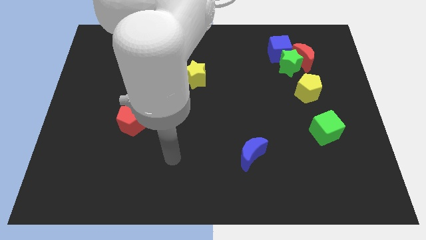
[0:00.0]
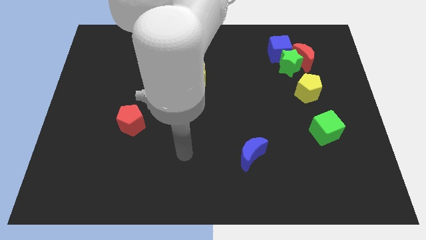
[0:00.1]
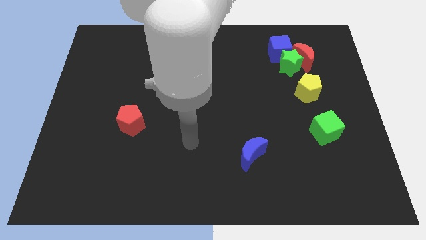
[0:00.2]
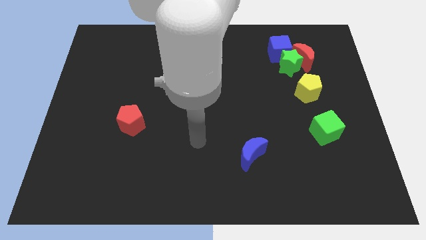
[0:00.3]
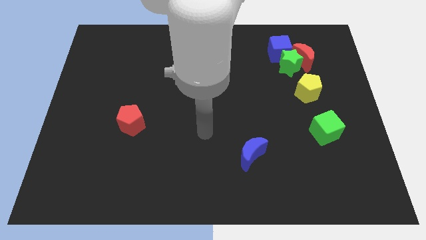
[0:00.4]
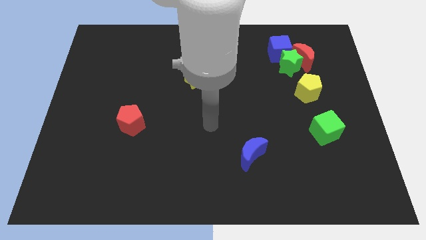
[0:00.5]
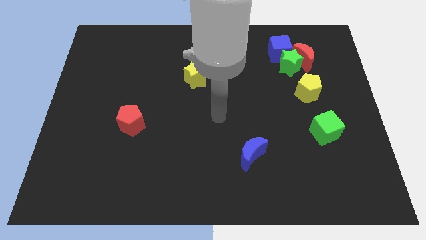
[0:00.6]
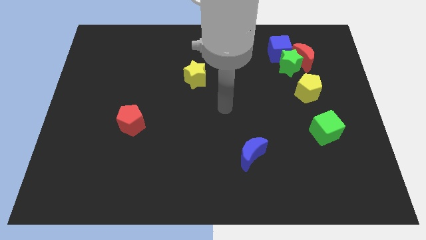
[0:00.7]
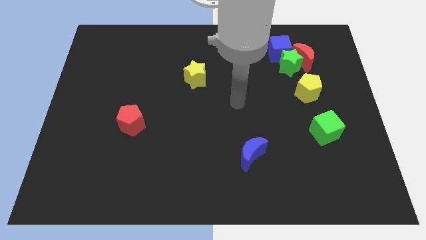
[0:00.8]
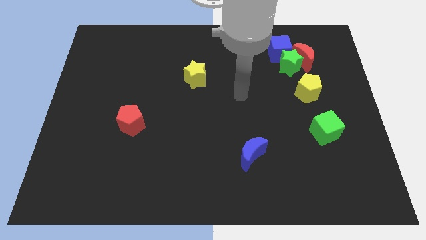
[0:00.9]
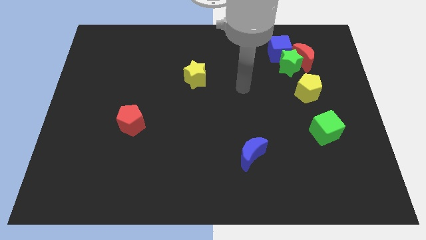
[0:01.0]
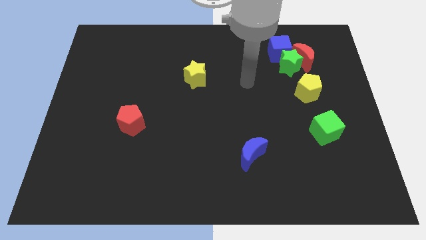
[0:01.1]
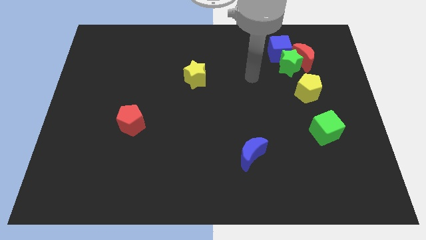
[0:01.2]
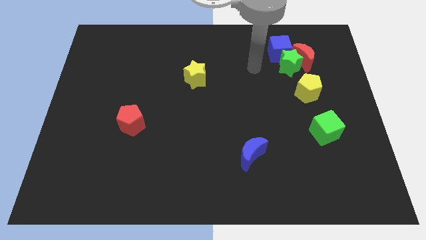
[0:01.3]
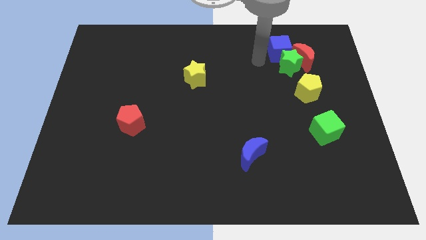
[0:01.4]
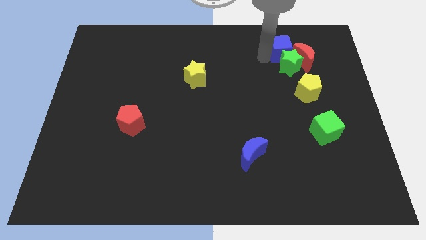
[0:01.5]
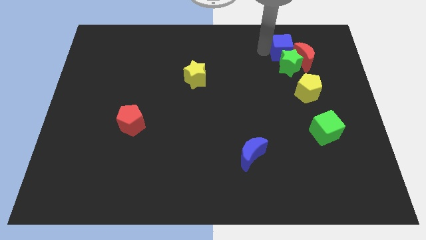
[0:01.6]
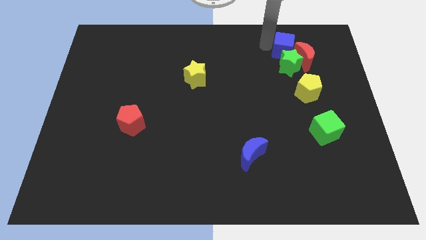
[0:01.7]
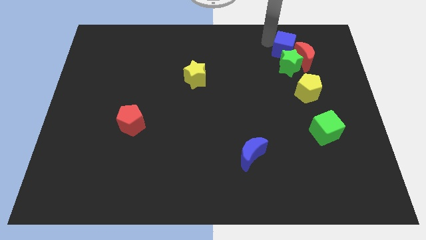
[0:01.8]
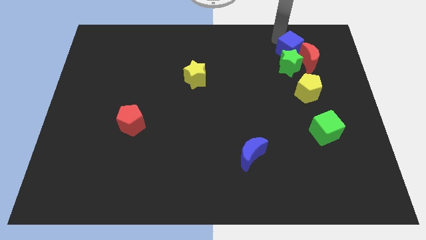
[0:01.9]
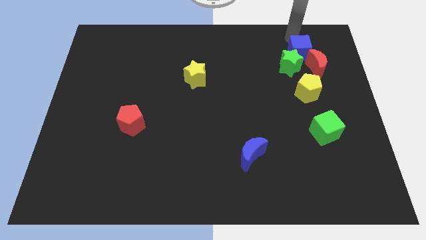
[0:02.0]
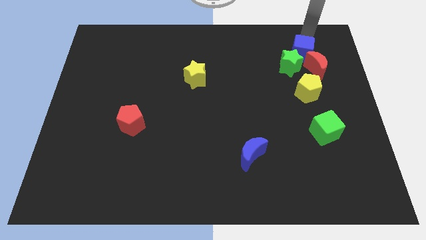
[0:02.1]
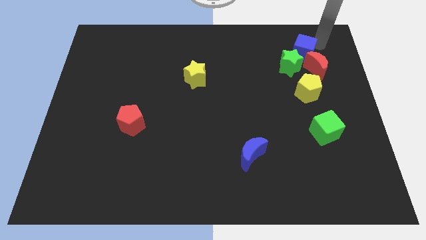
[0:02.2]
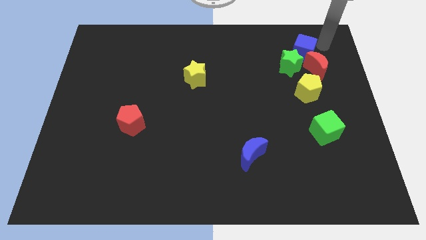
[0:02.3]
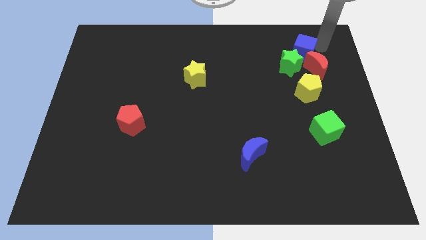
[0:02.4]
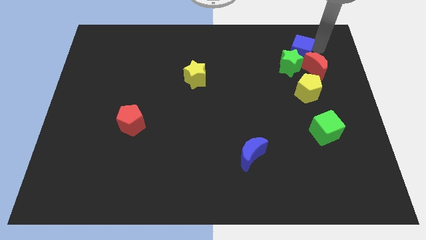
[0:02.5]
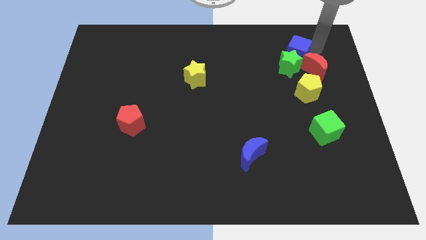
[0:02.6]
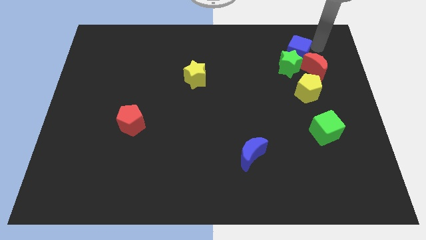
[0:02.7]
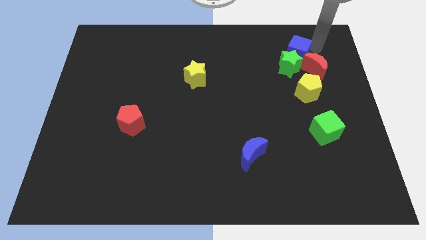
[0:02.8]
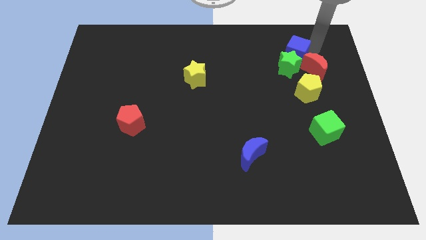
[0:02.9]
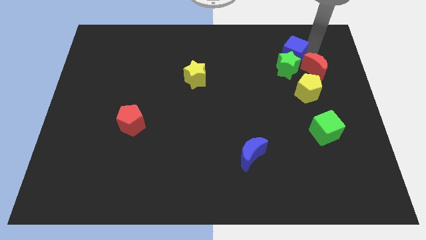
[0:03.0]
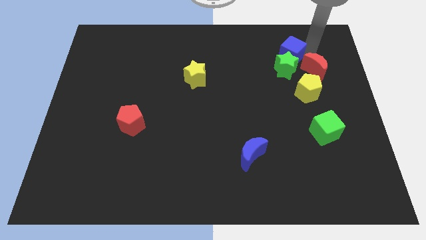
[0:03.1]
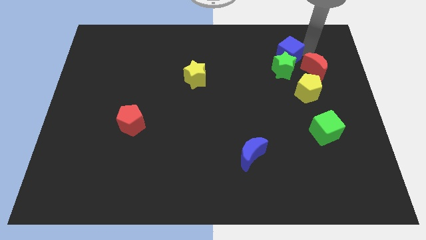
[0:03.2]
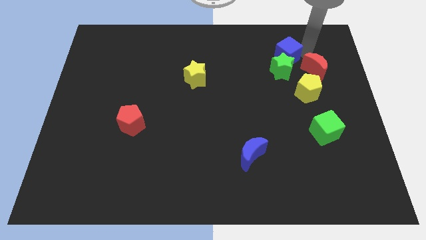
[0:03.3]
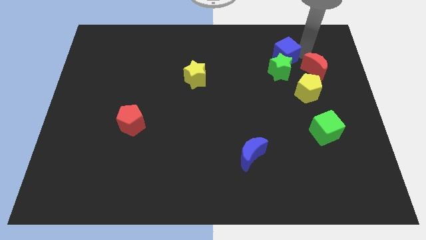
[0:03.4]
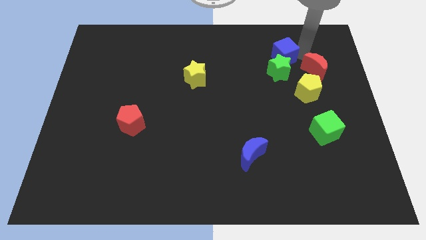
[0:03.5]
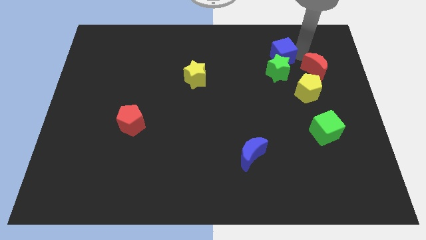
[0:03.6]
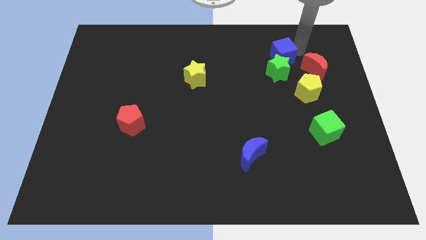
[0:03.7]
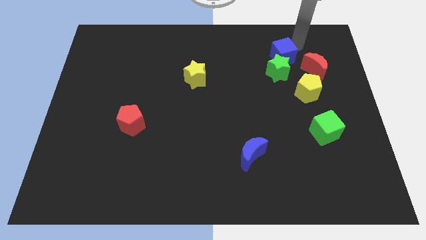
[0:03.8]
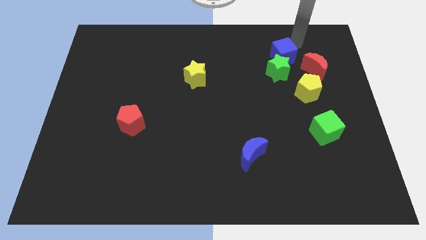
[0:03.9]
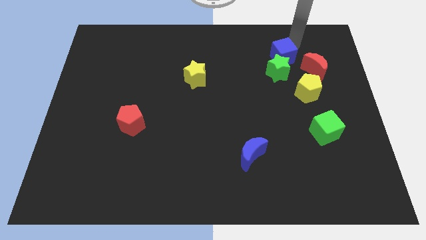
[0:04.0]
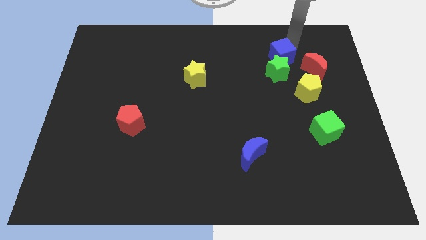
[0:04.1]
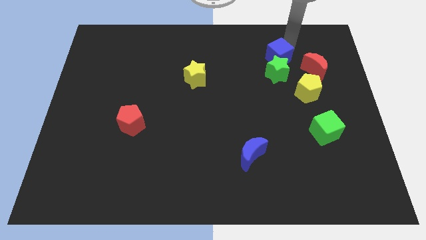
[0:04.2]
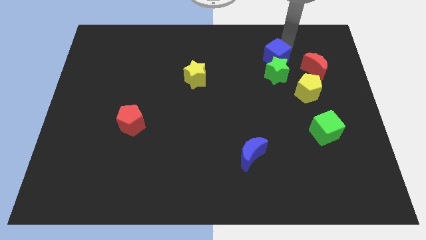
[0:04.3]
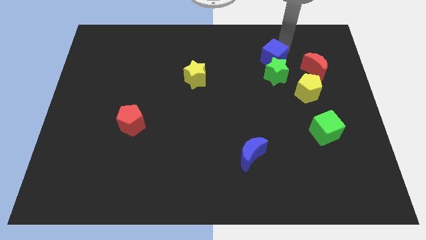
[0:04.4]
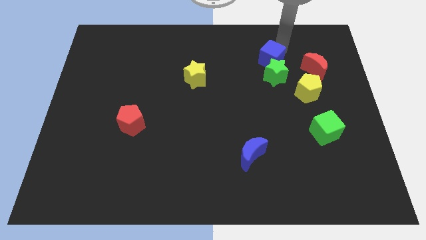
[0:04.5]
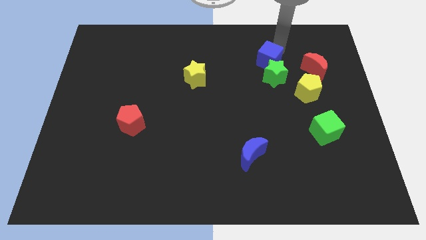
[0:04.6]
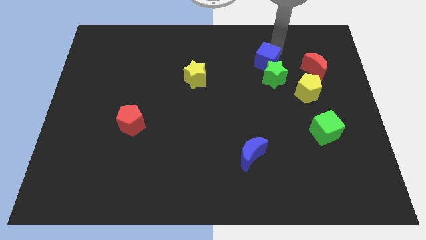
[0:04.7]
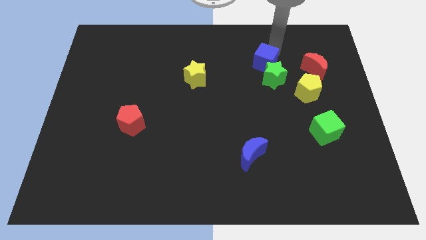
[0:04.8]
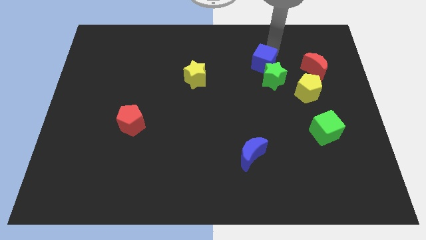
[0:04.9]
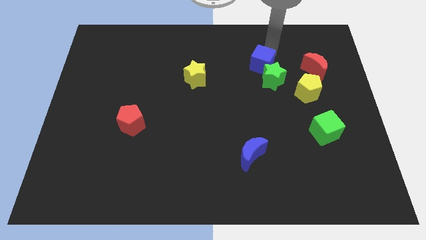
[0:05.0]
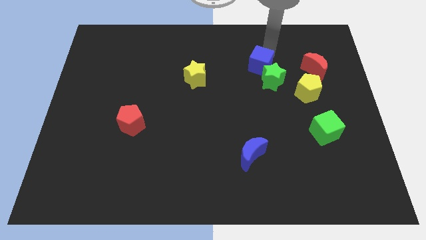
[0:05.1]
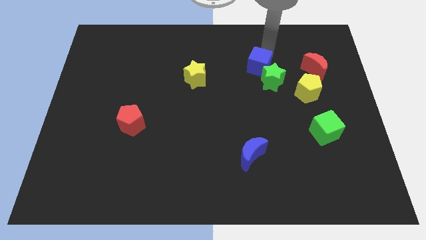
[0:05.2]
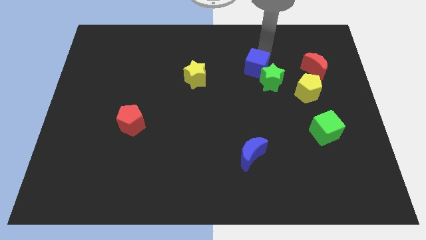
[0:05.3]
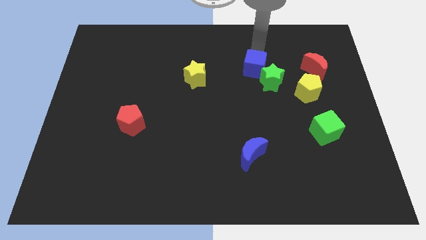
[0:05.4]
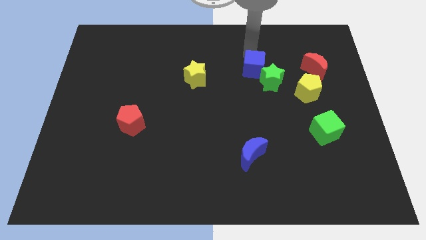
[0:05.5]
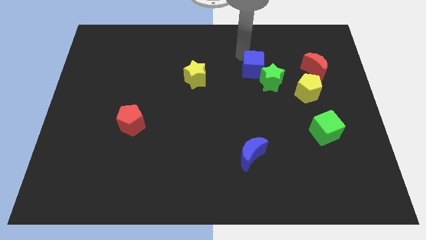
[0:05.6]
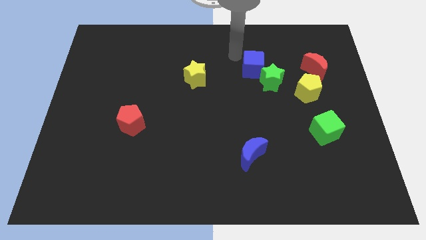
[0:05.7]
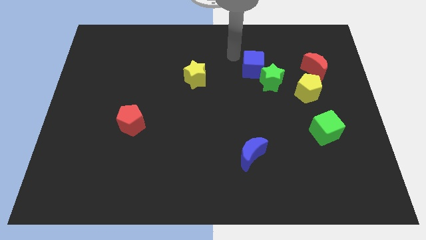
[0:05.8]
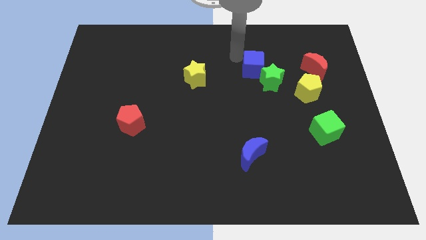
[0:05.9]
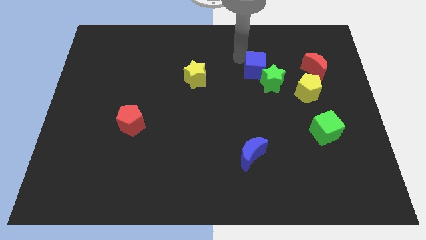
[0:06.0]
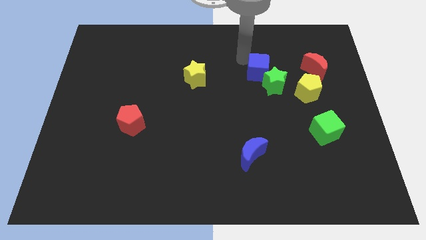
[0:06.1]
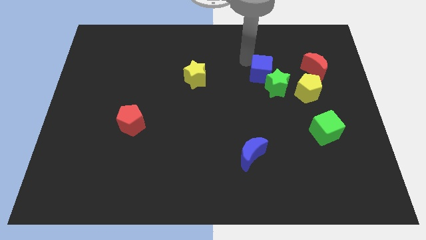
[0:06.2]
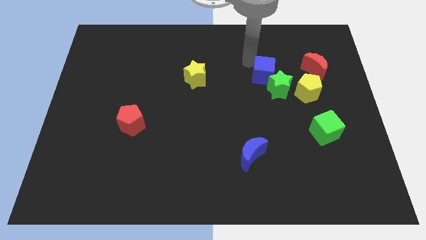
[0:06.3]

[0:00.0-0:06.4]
move the blue cube slightly down

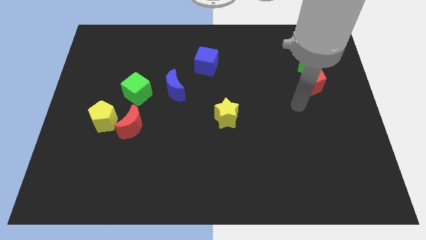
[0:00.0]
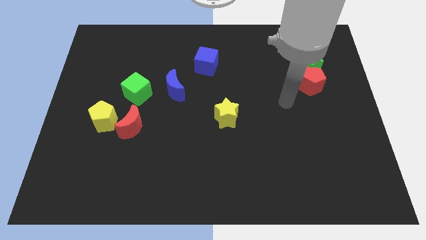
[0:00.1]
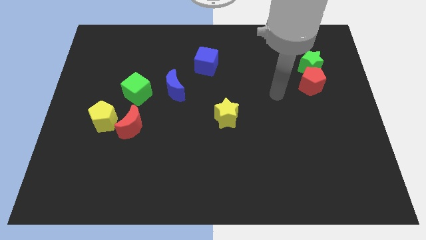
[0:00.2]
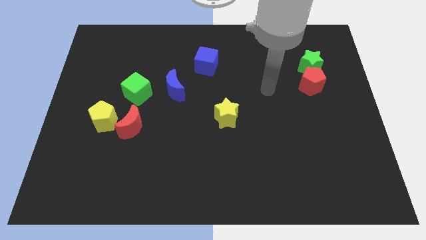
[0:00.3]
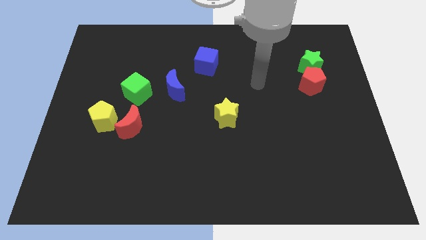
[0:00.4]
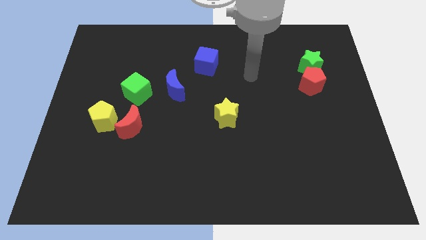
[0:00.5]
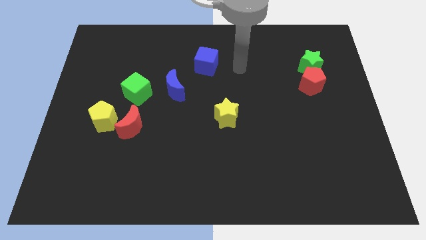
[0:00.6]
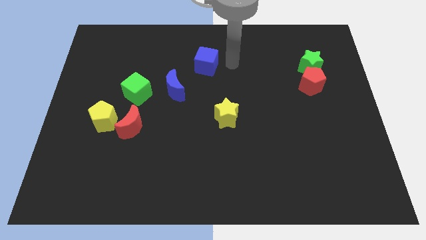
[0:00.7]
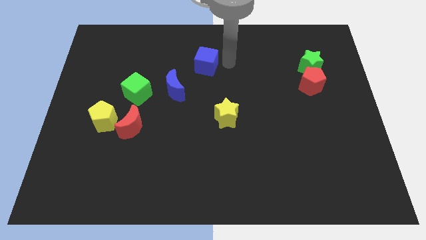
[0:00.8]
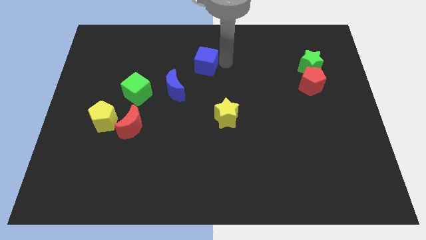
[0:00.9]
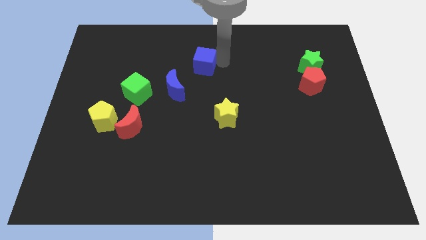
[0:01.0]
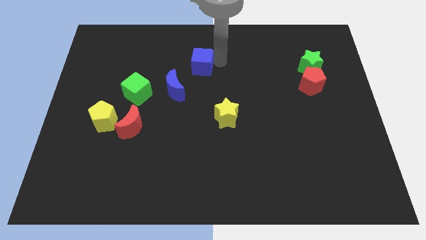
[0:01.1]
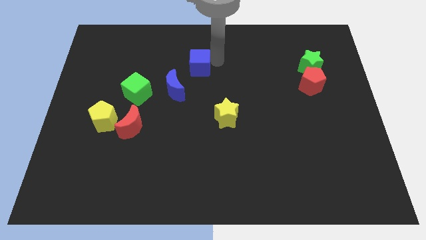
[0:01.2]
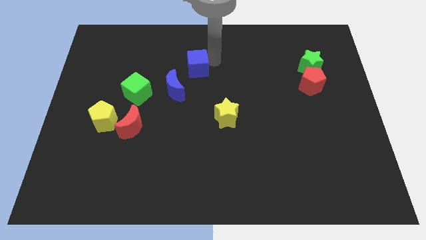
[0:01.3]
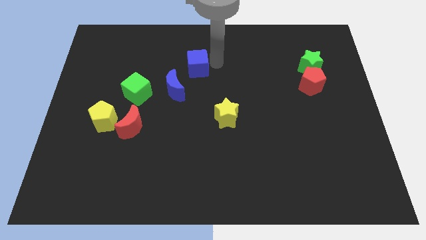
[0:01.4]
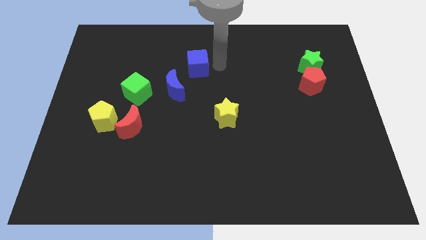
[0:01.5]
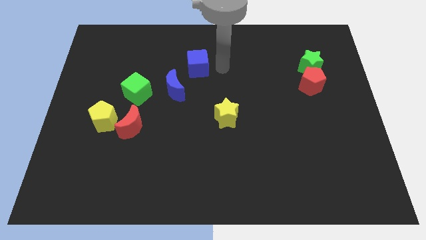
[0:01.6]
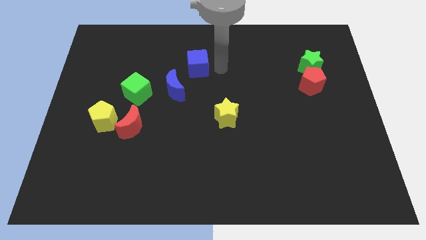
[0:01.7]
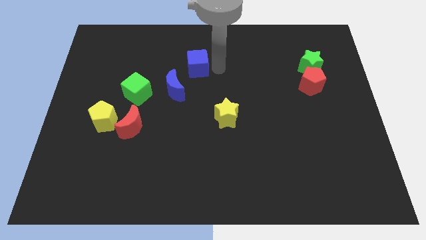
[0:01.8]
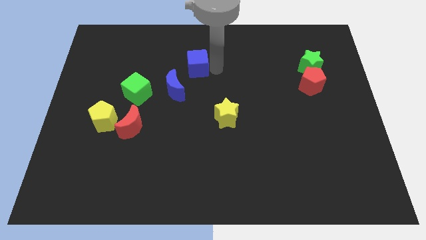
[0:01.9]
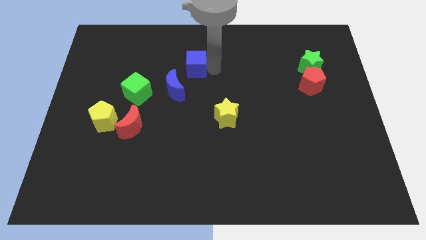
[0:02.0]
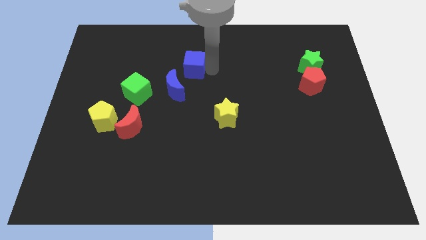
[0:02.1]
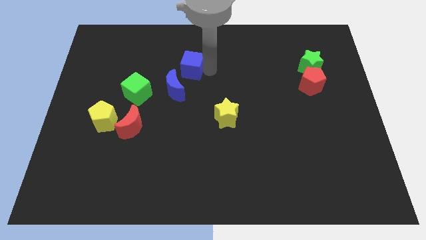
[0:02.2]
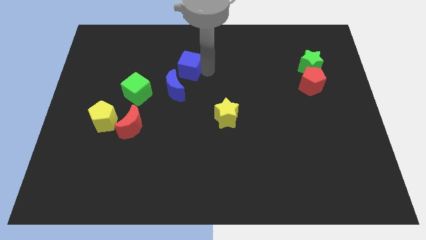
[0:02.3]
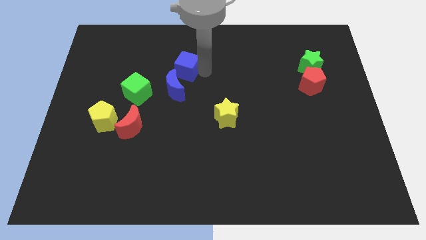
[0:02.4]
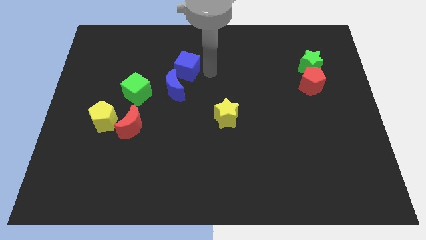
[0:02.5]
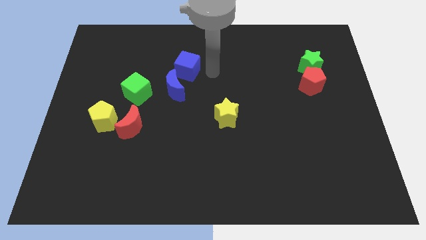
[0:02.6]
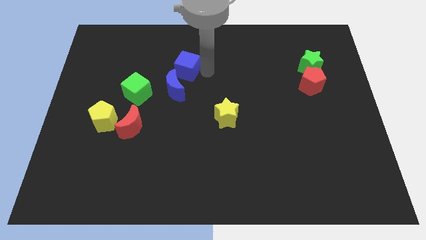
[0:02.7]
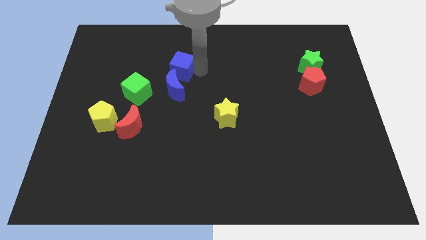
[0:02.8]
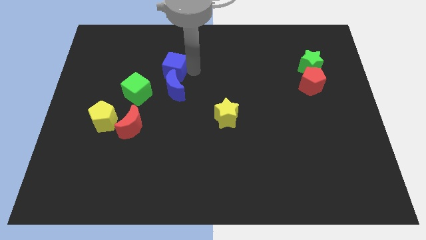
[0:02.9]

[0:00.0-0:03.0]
slide the blue cube left slightly
